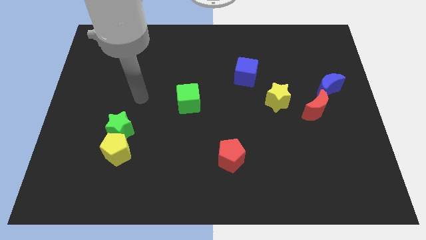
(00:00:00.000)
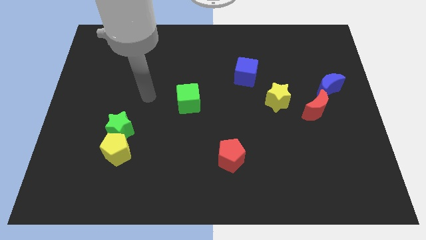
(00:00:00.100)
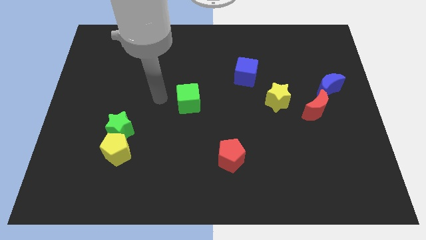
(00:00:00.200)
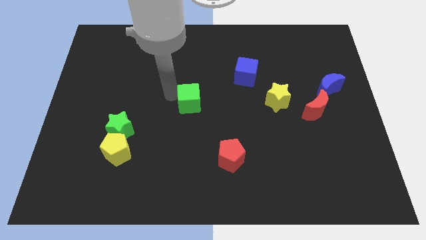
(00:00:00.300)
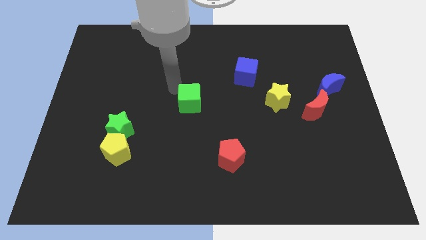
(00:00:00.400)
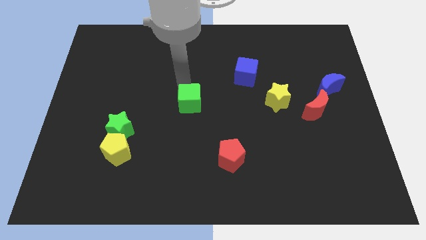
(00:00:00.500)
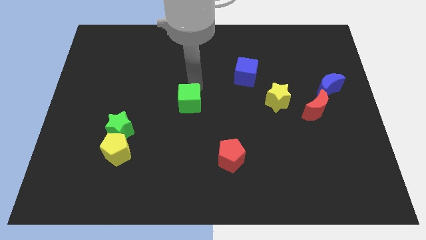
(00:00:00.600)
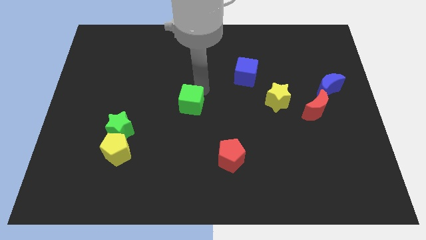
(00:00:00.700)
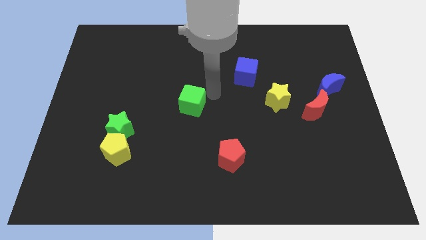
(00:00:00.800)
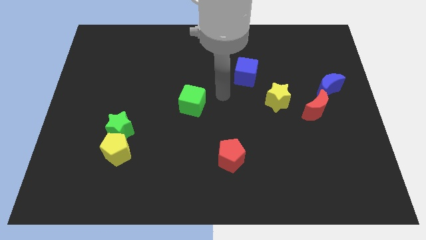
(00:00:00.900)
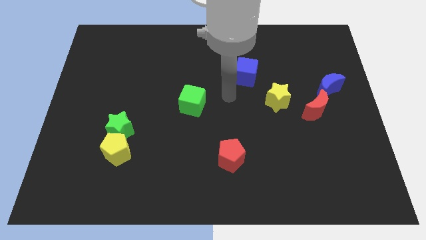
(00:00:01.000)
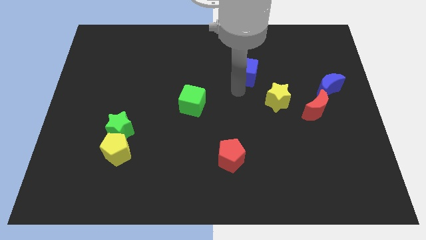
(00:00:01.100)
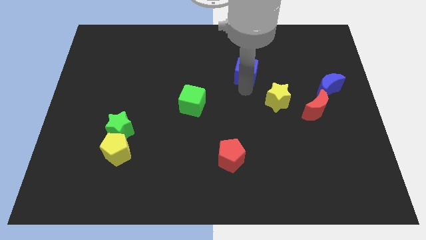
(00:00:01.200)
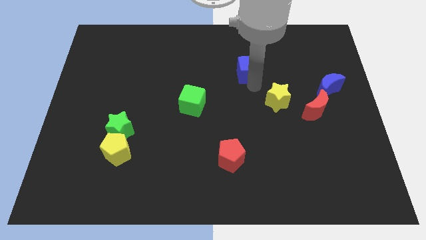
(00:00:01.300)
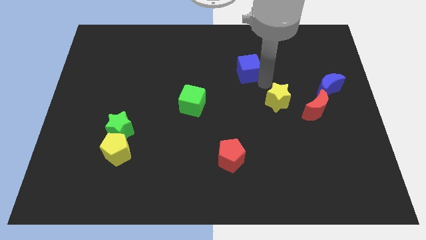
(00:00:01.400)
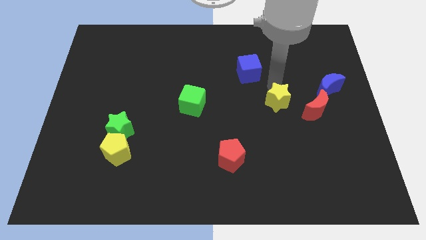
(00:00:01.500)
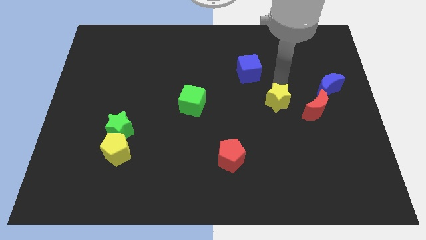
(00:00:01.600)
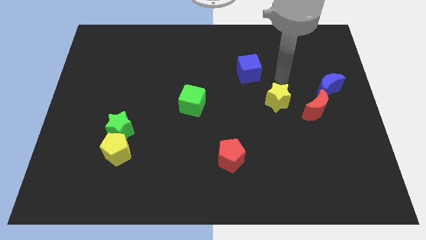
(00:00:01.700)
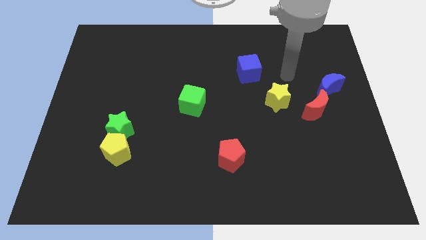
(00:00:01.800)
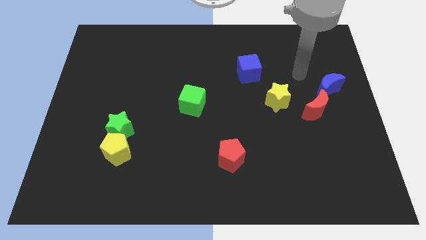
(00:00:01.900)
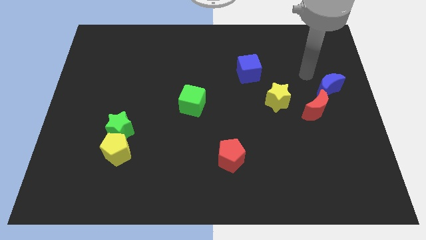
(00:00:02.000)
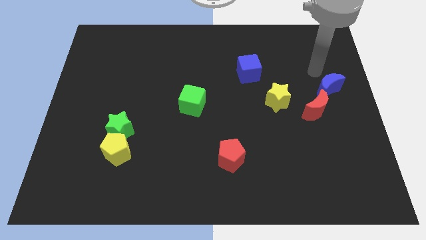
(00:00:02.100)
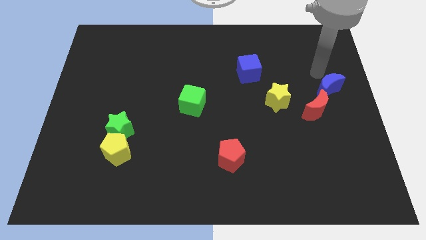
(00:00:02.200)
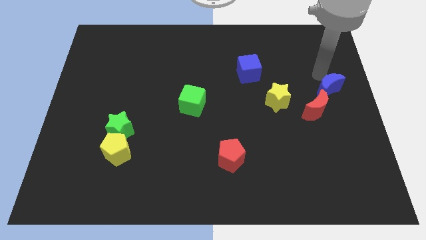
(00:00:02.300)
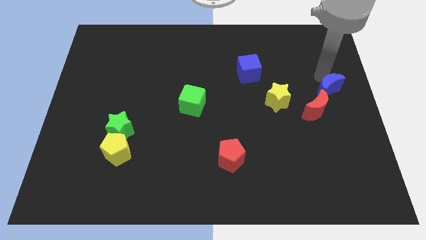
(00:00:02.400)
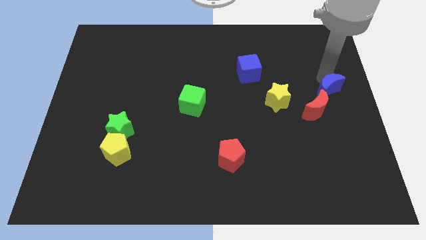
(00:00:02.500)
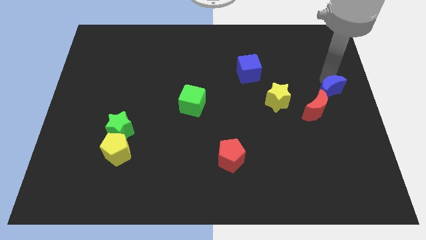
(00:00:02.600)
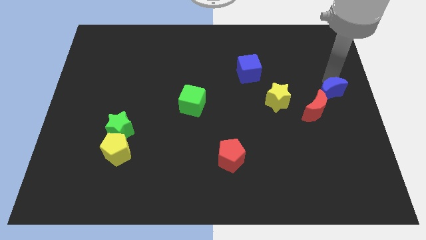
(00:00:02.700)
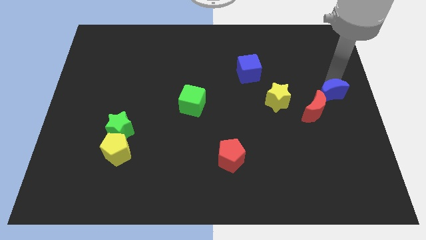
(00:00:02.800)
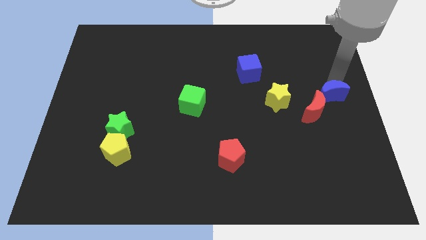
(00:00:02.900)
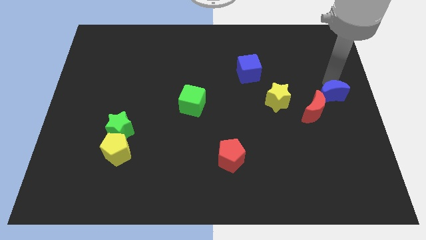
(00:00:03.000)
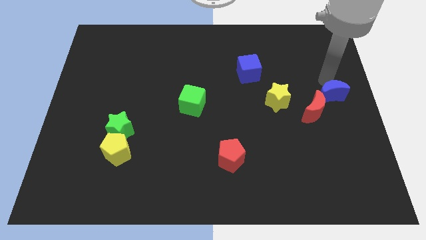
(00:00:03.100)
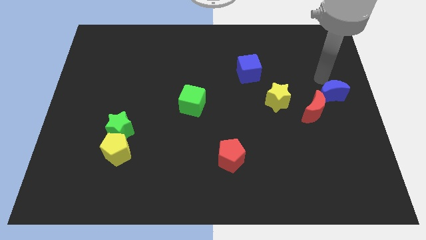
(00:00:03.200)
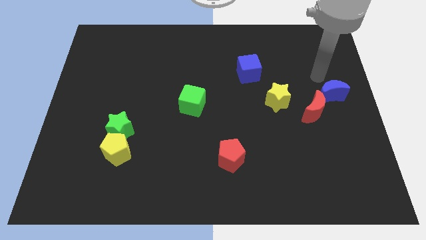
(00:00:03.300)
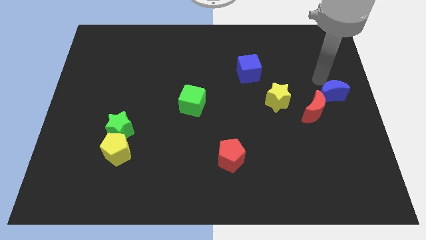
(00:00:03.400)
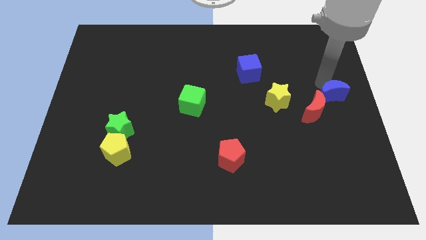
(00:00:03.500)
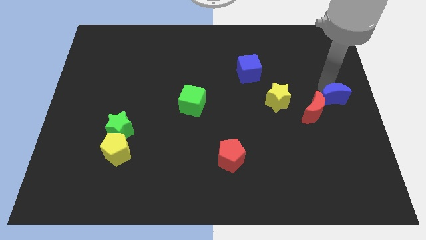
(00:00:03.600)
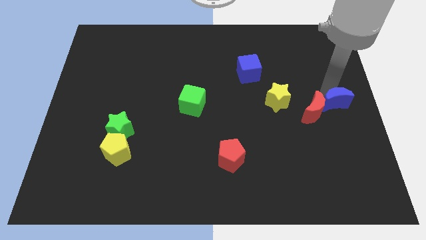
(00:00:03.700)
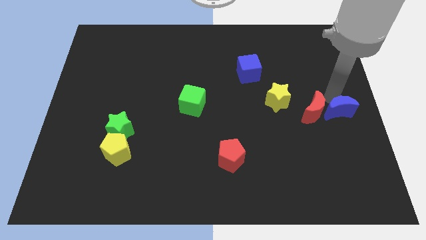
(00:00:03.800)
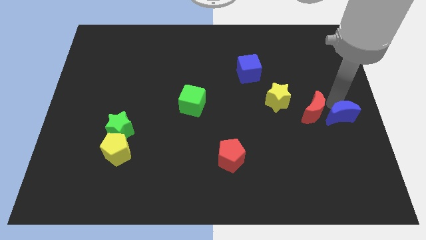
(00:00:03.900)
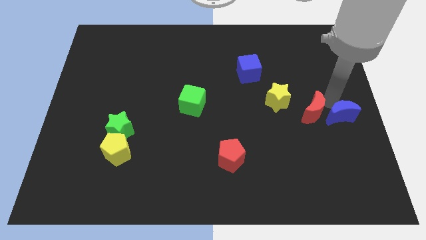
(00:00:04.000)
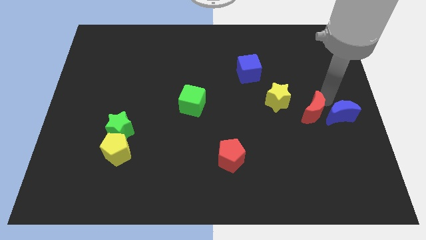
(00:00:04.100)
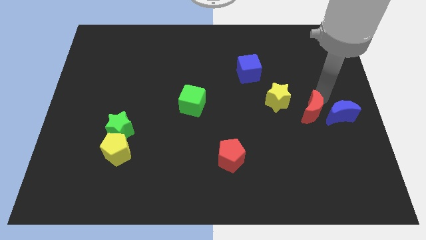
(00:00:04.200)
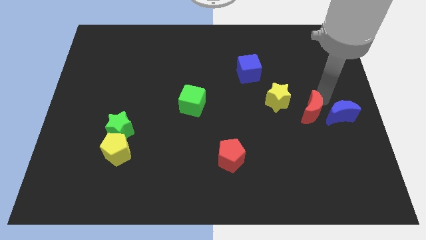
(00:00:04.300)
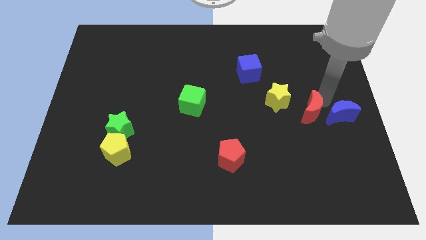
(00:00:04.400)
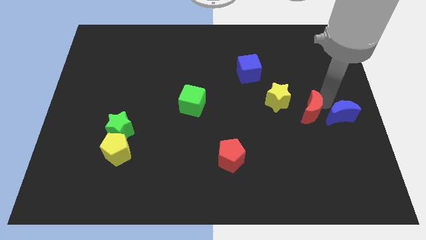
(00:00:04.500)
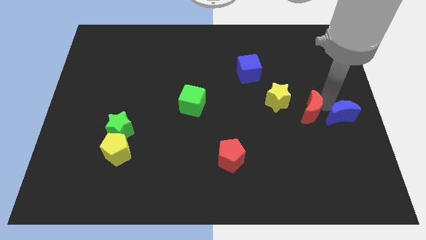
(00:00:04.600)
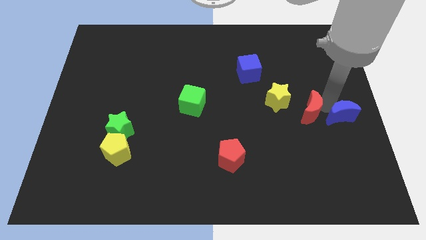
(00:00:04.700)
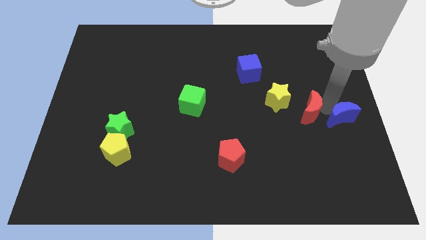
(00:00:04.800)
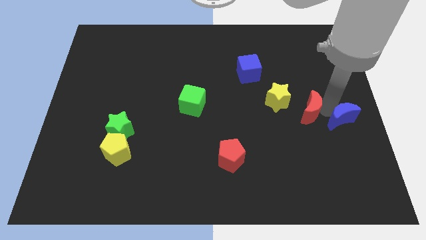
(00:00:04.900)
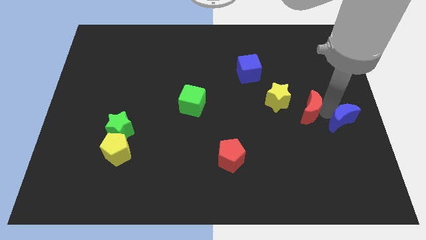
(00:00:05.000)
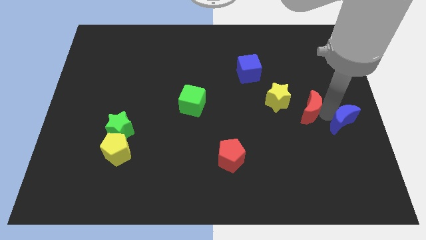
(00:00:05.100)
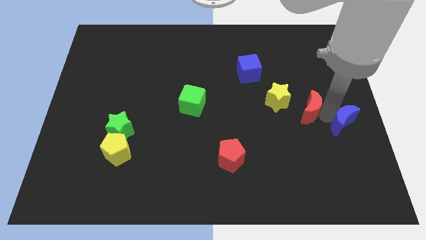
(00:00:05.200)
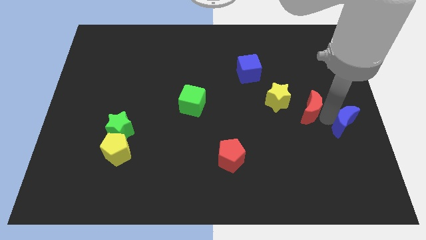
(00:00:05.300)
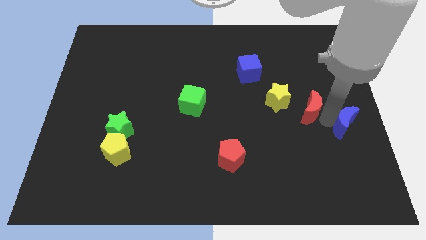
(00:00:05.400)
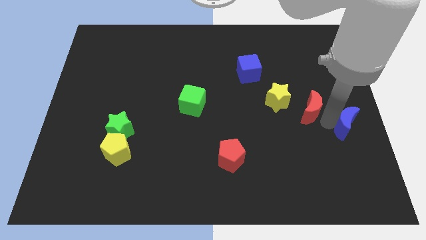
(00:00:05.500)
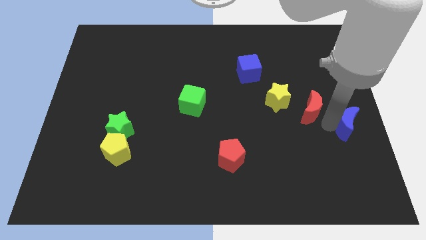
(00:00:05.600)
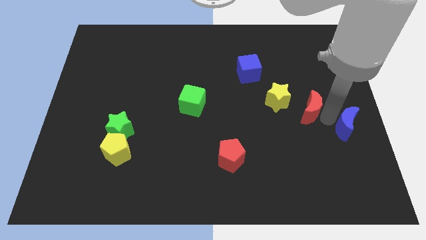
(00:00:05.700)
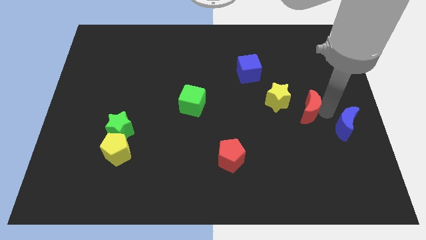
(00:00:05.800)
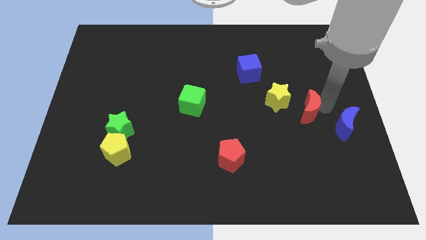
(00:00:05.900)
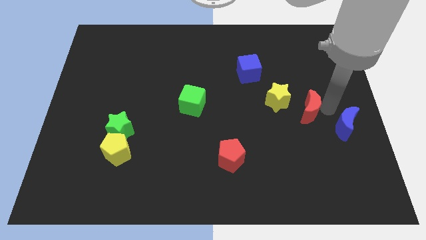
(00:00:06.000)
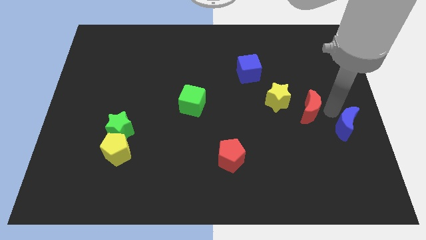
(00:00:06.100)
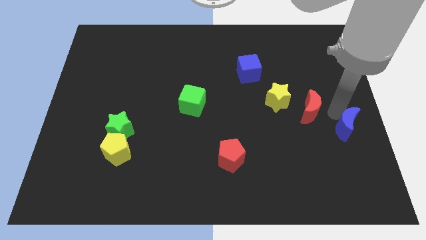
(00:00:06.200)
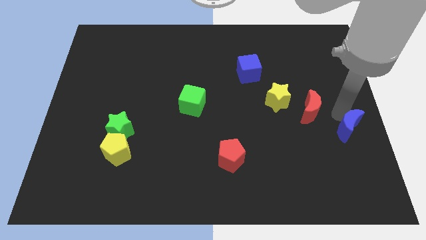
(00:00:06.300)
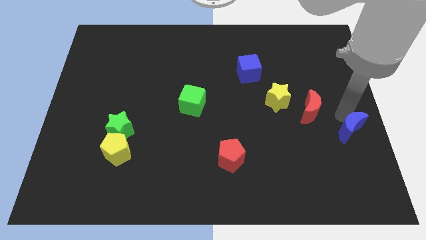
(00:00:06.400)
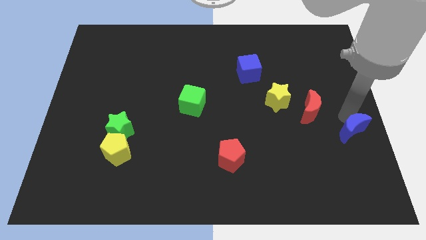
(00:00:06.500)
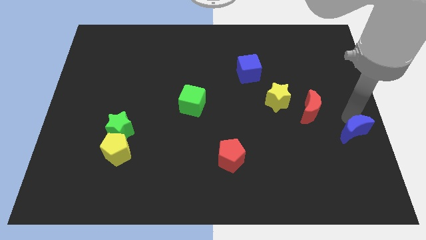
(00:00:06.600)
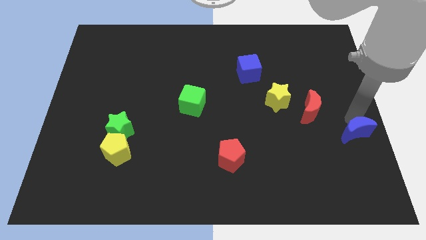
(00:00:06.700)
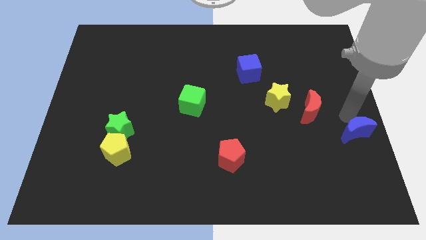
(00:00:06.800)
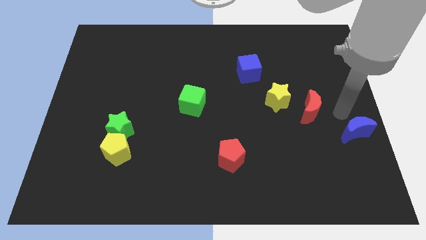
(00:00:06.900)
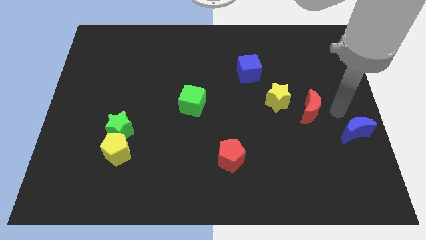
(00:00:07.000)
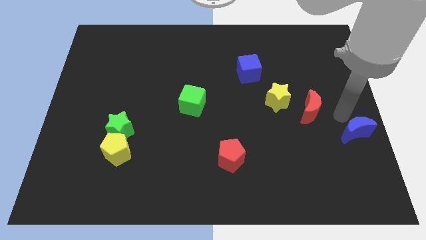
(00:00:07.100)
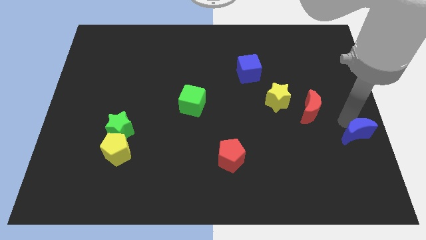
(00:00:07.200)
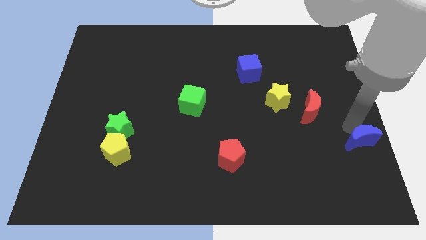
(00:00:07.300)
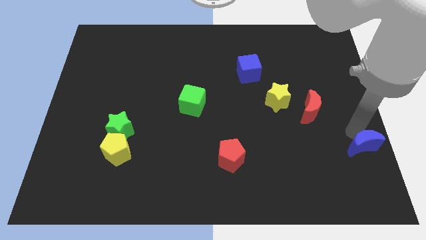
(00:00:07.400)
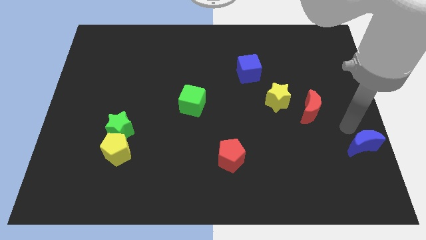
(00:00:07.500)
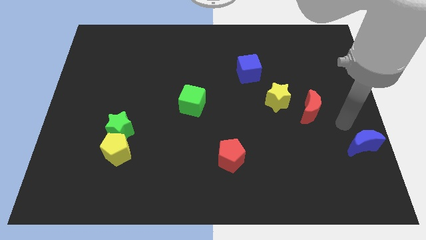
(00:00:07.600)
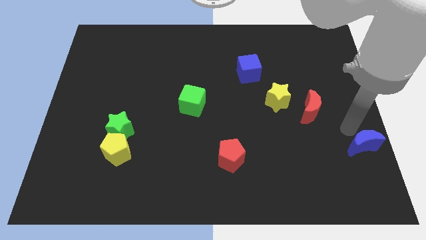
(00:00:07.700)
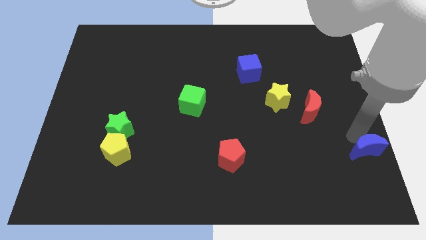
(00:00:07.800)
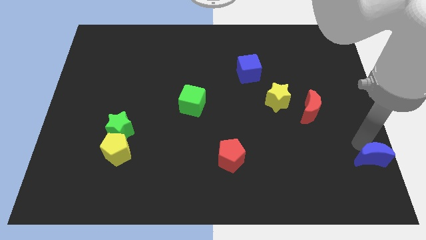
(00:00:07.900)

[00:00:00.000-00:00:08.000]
move the blue moon to the bottom right corner
